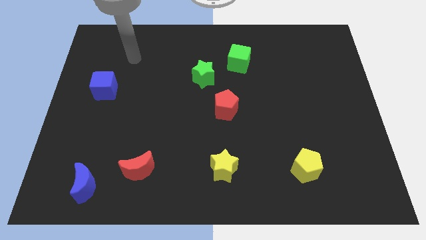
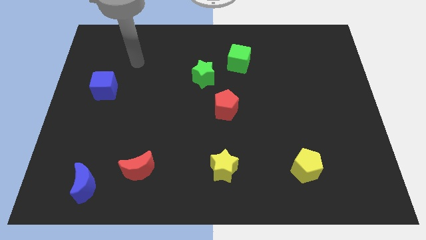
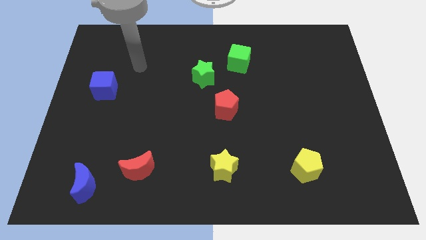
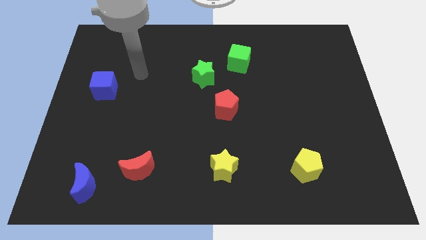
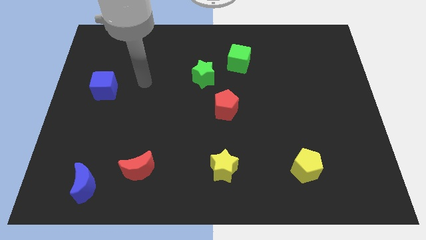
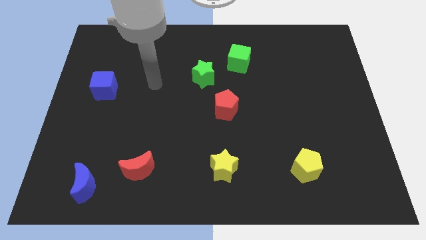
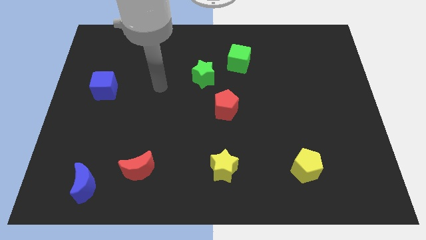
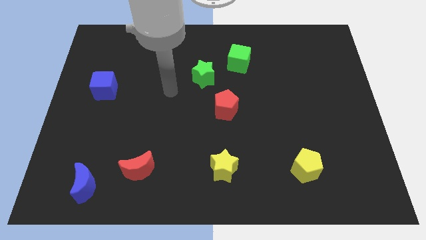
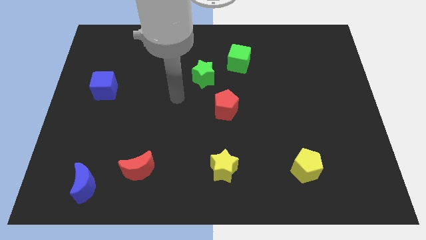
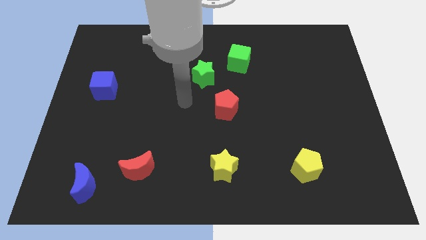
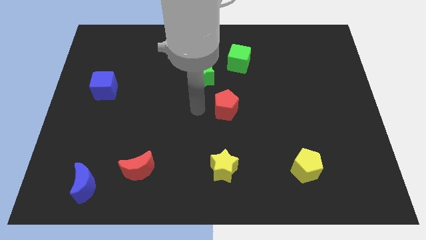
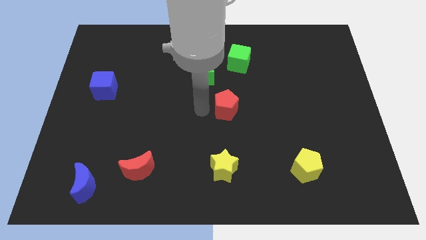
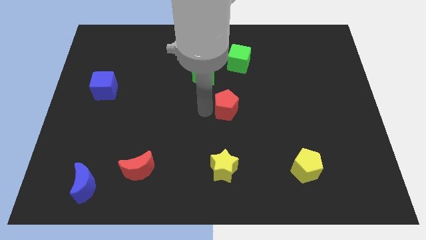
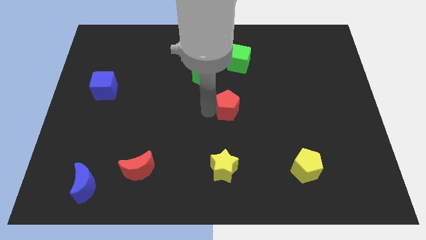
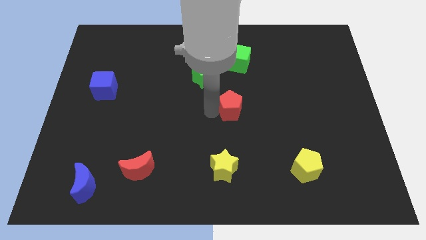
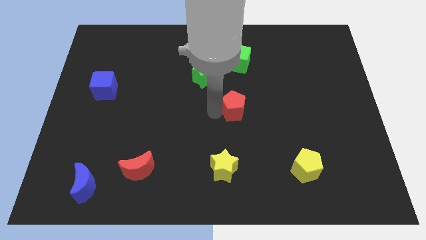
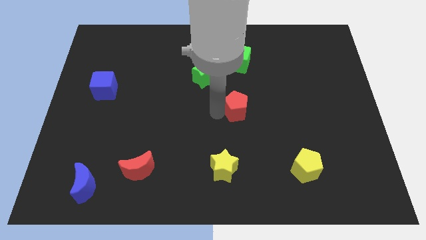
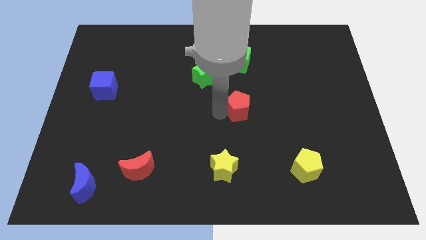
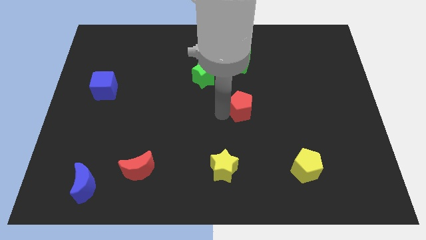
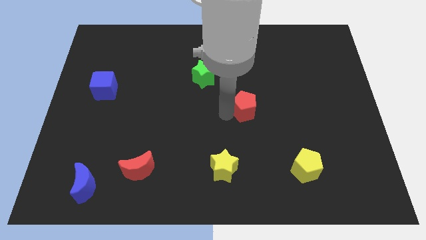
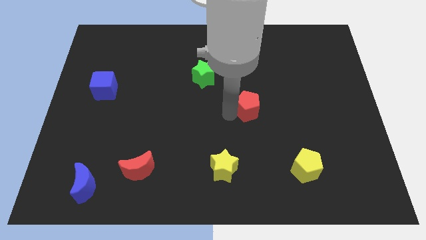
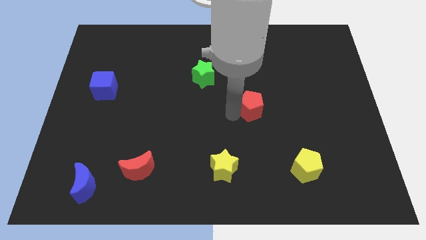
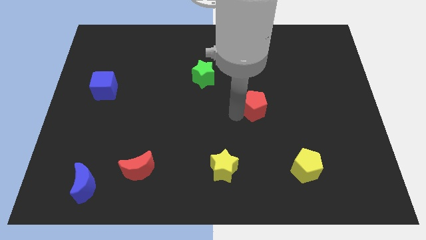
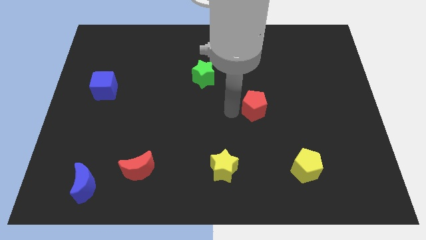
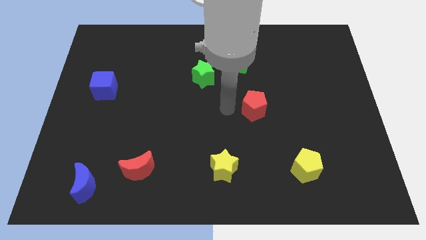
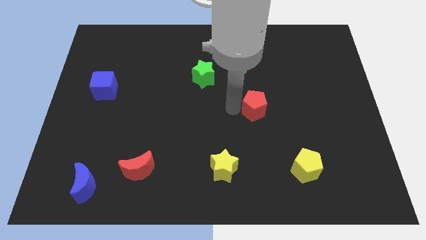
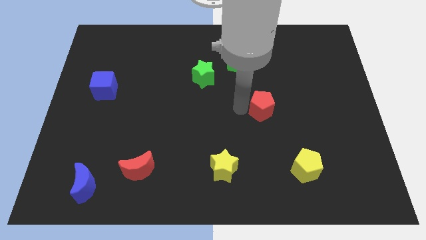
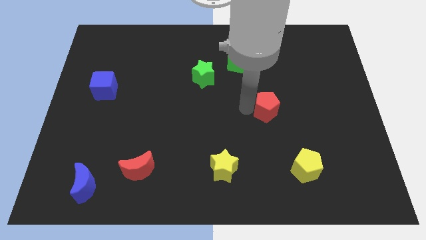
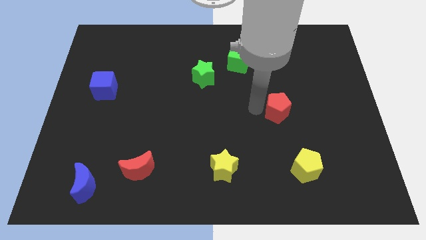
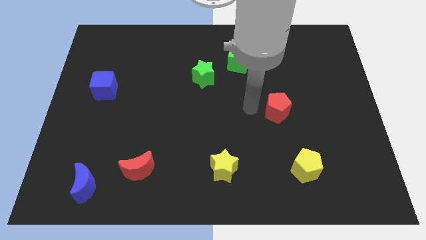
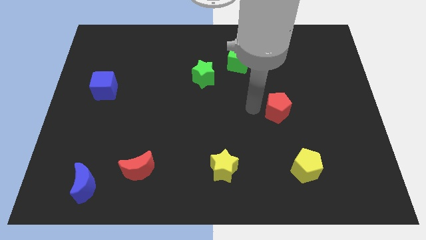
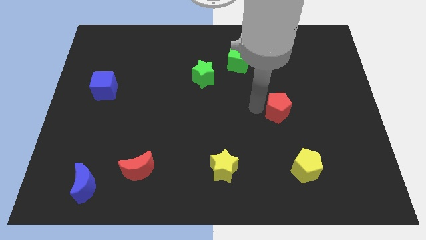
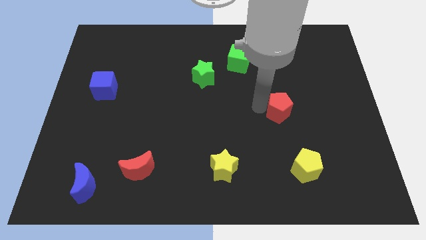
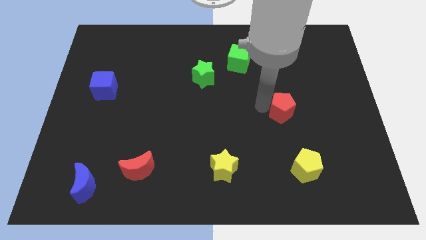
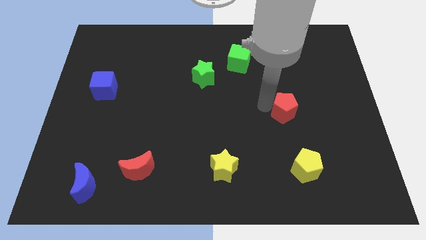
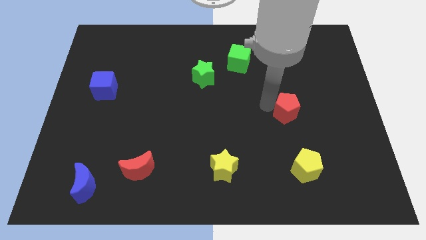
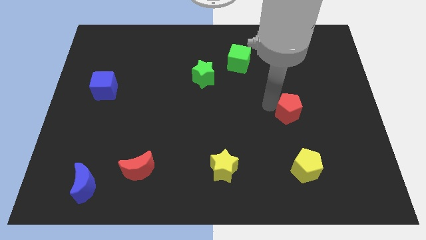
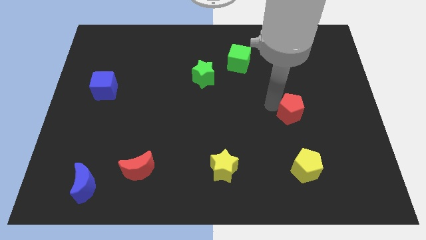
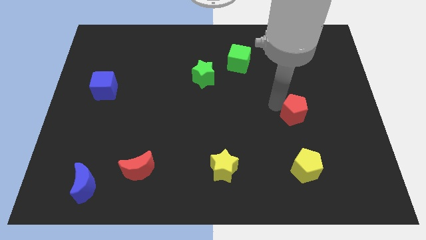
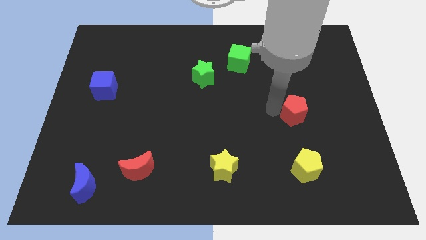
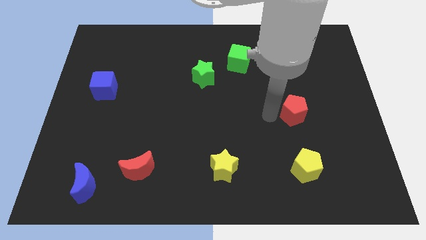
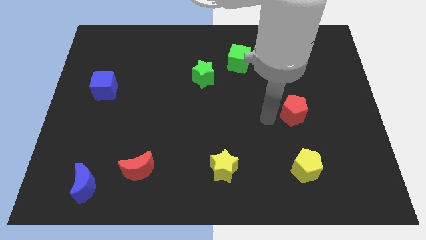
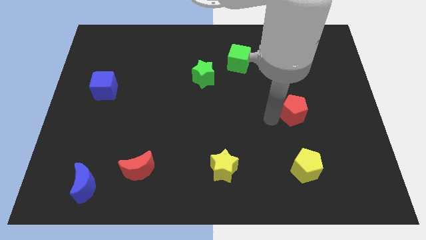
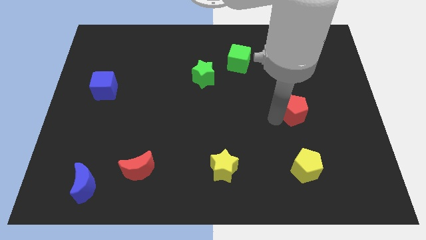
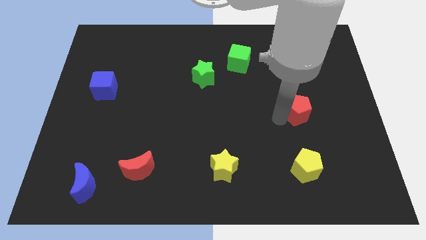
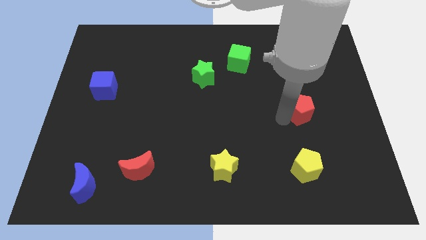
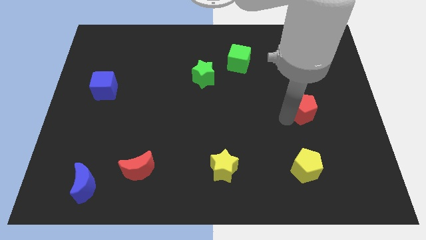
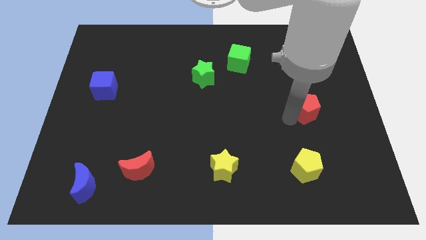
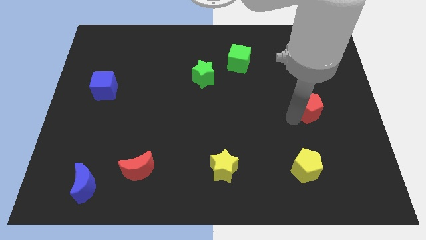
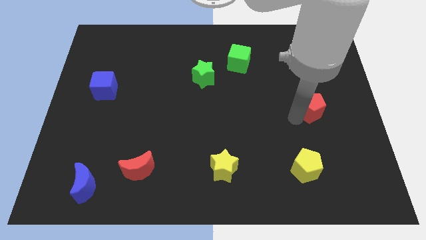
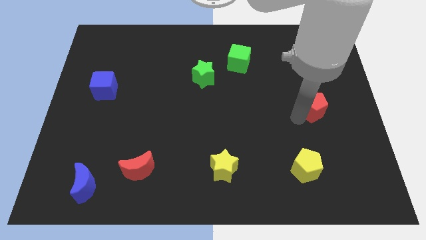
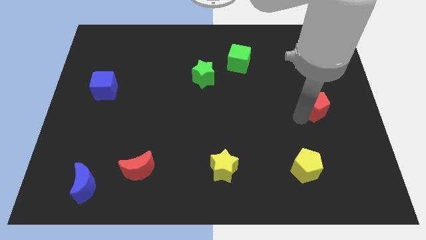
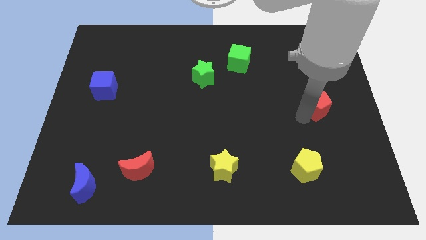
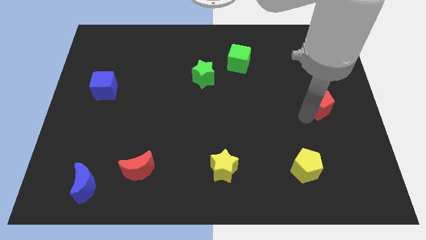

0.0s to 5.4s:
push the red pentagon to the center right
